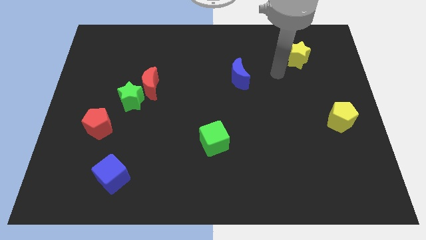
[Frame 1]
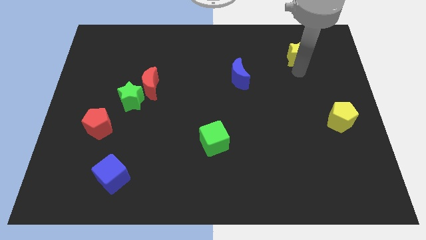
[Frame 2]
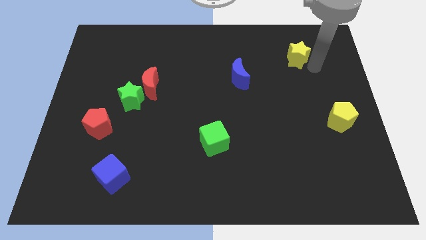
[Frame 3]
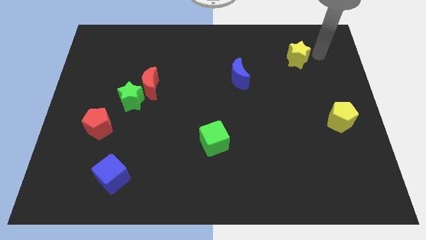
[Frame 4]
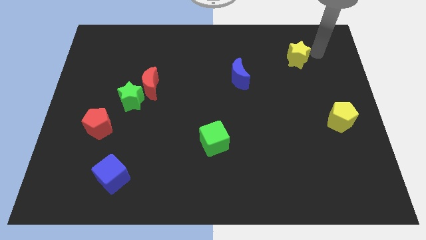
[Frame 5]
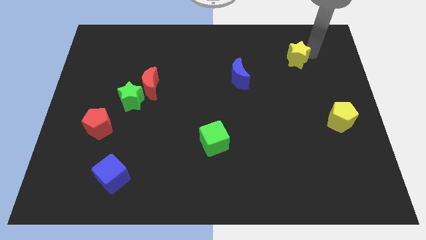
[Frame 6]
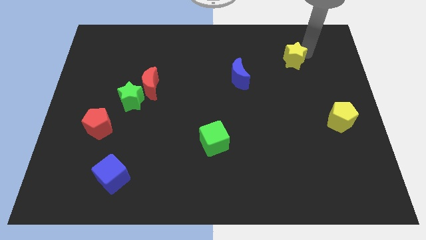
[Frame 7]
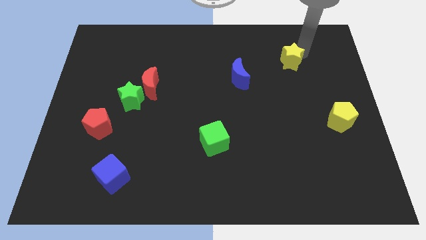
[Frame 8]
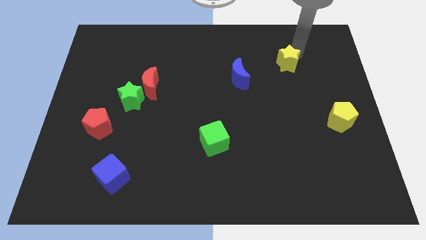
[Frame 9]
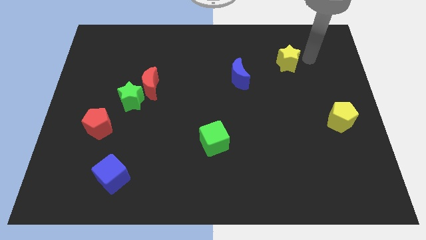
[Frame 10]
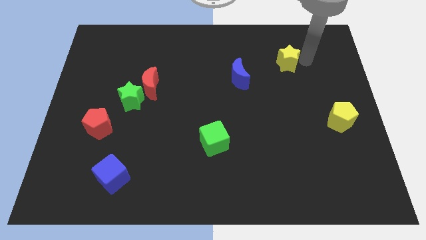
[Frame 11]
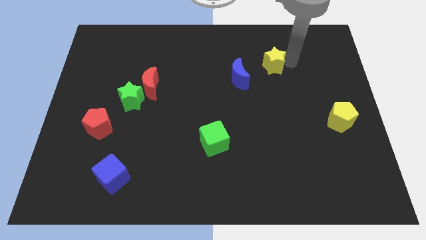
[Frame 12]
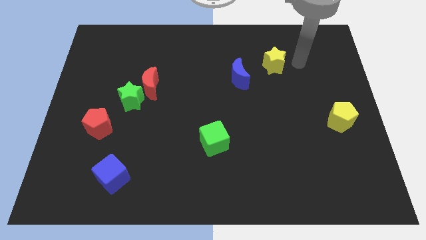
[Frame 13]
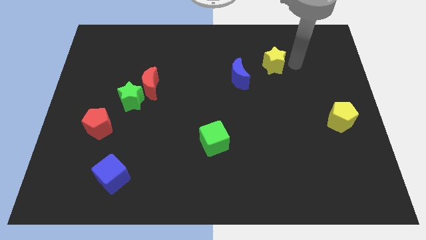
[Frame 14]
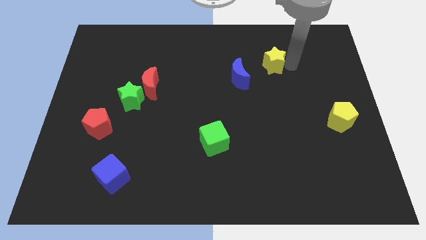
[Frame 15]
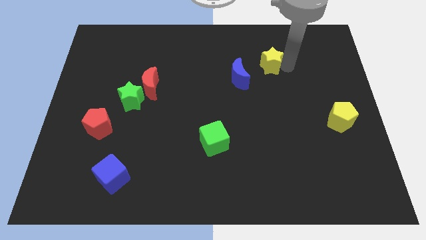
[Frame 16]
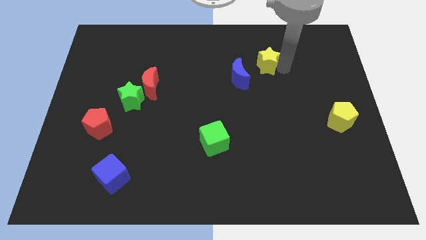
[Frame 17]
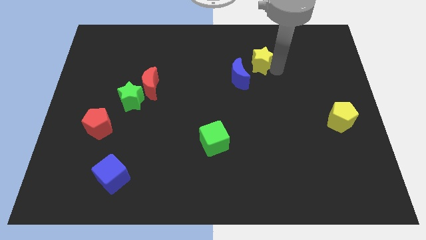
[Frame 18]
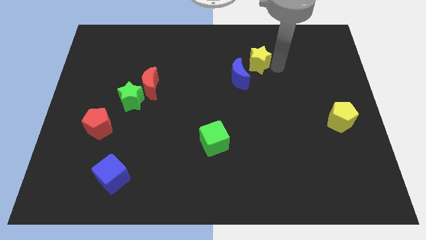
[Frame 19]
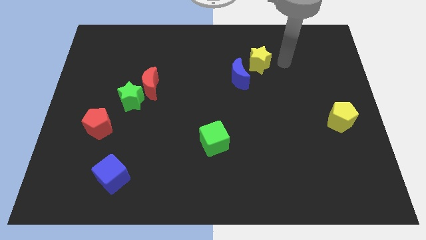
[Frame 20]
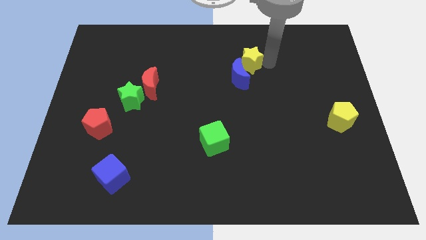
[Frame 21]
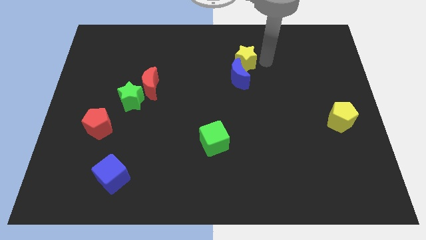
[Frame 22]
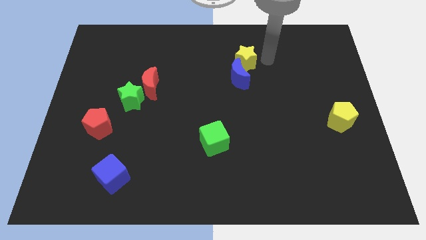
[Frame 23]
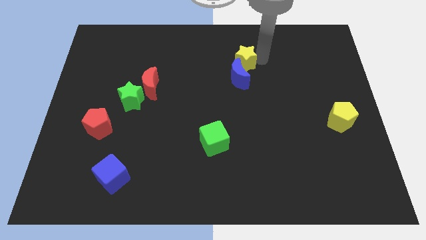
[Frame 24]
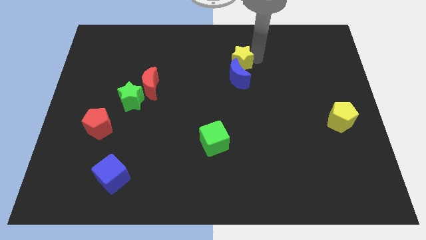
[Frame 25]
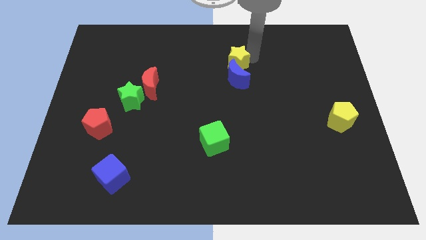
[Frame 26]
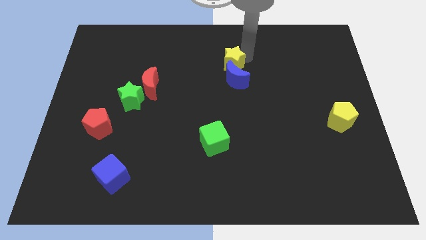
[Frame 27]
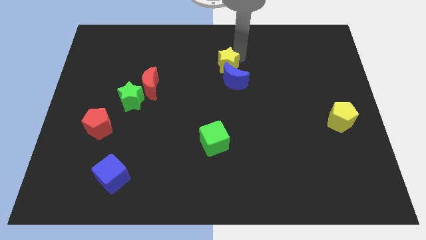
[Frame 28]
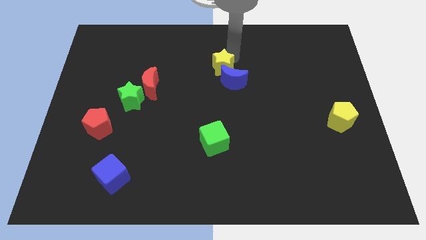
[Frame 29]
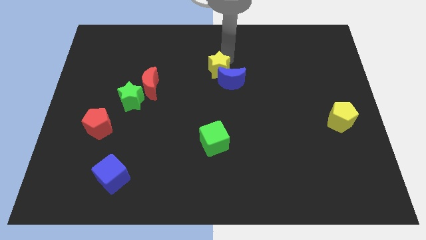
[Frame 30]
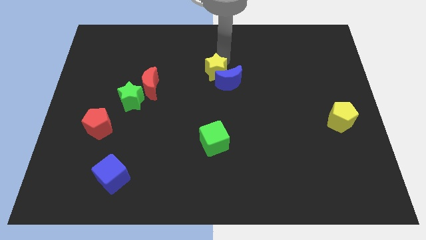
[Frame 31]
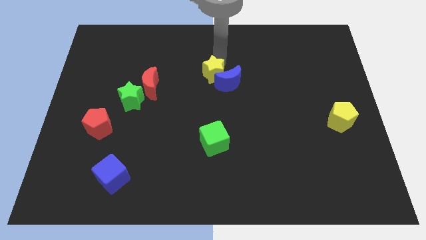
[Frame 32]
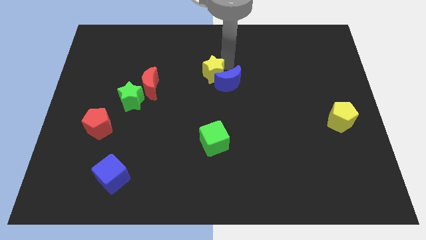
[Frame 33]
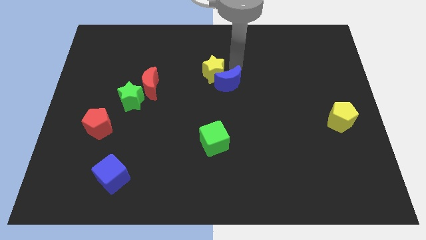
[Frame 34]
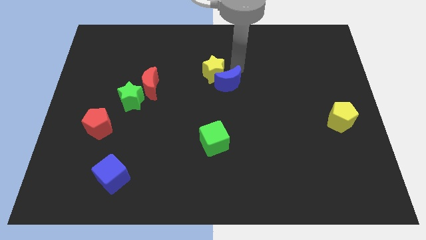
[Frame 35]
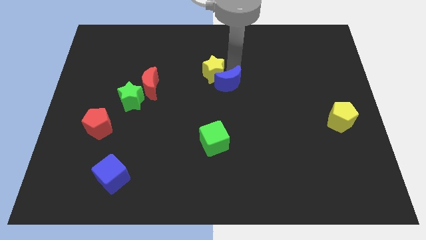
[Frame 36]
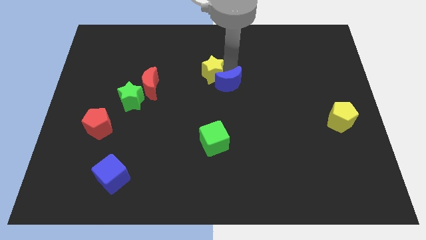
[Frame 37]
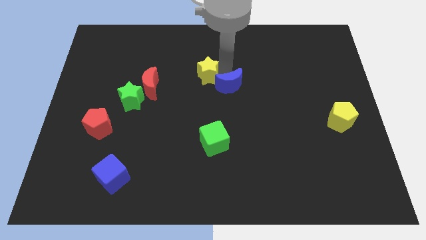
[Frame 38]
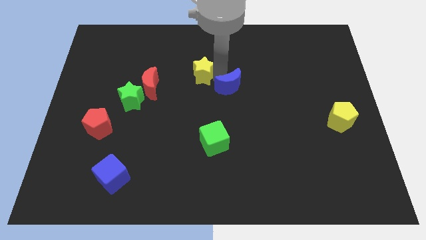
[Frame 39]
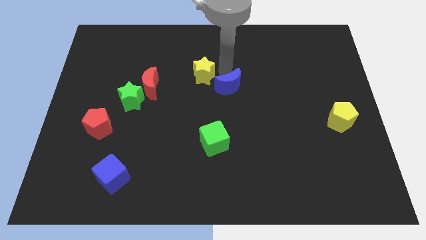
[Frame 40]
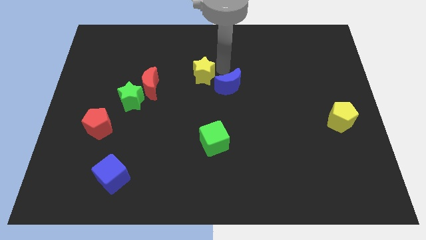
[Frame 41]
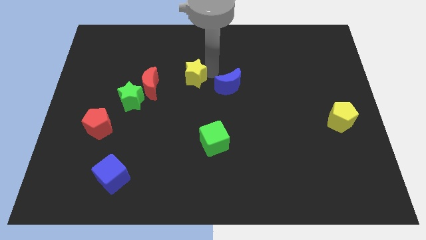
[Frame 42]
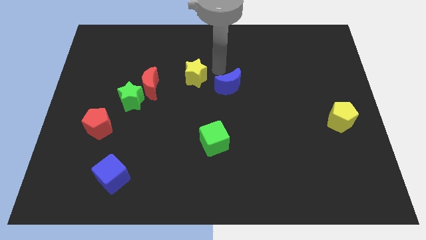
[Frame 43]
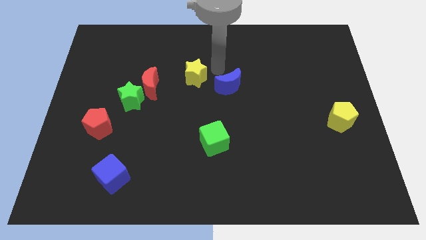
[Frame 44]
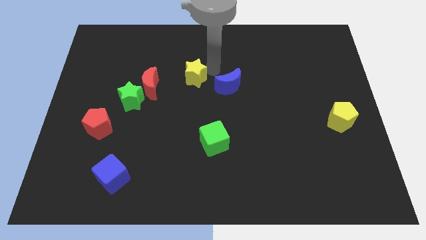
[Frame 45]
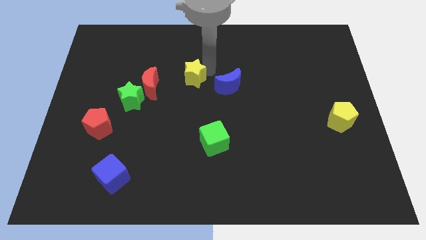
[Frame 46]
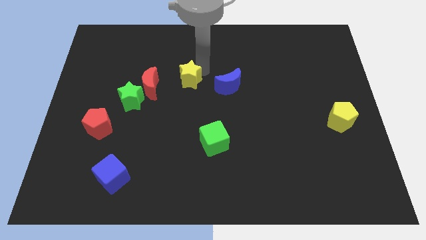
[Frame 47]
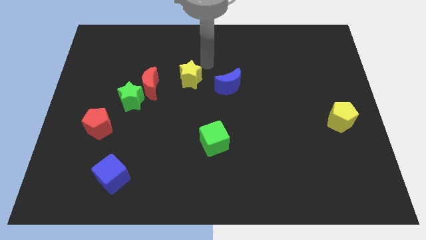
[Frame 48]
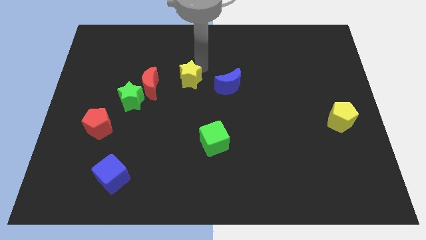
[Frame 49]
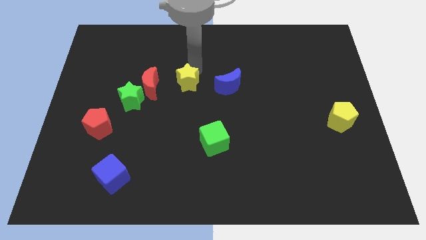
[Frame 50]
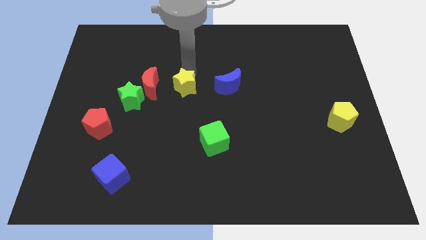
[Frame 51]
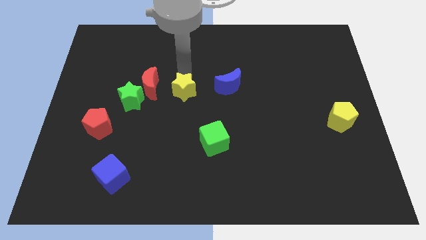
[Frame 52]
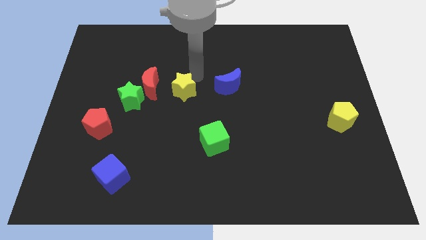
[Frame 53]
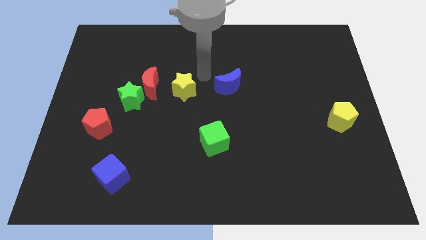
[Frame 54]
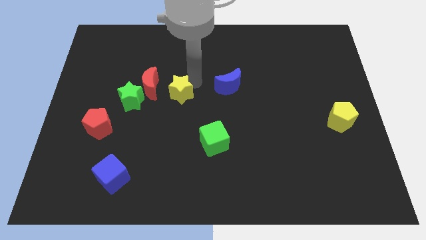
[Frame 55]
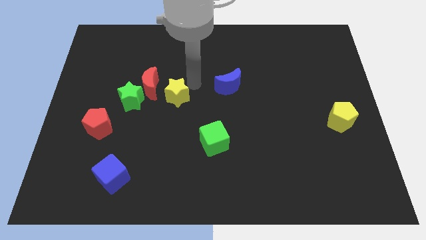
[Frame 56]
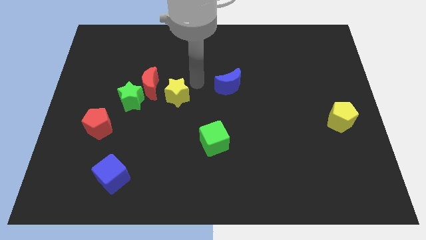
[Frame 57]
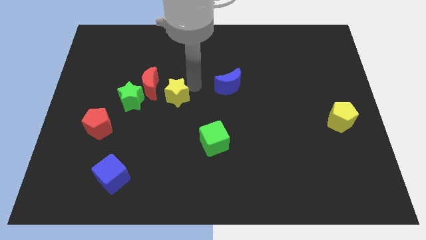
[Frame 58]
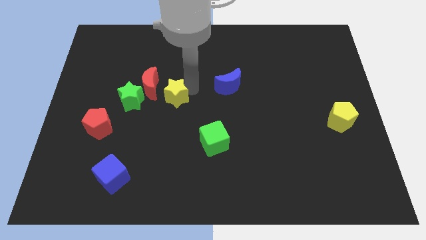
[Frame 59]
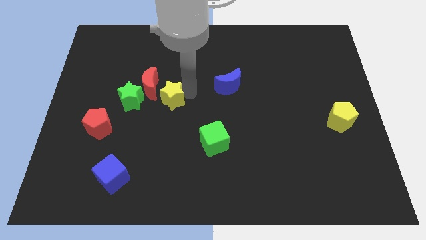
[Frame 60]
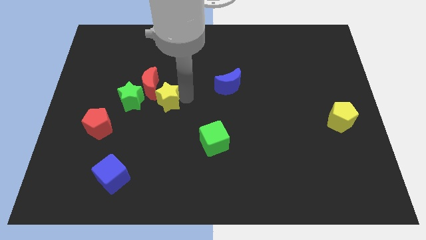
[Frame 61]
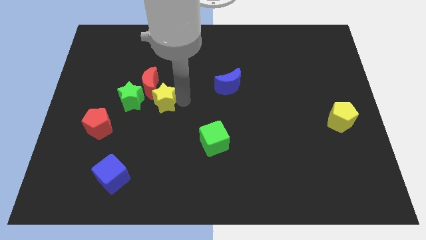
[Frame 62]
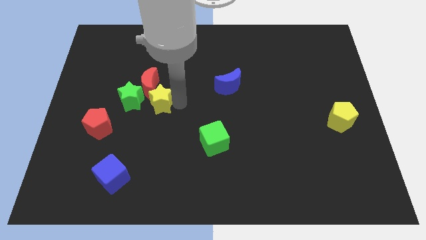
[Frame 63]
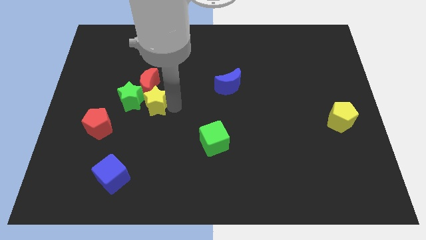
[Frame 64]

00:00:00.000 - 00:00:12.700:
move the yellow star next to the green star

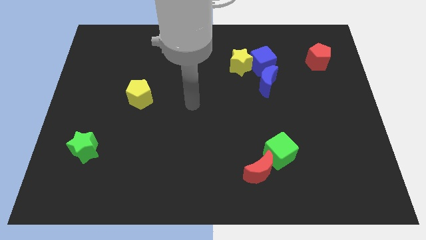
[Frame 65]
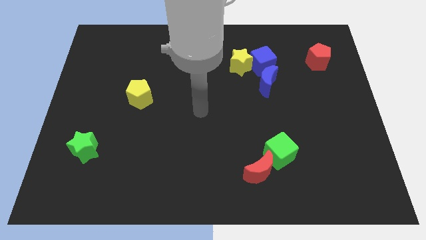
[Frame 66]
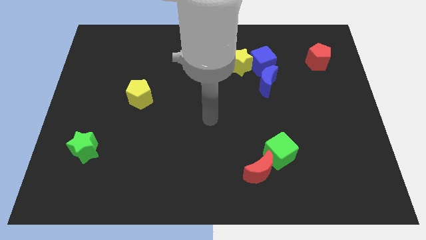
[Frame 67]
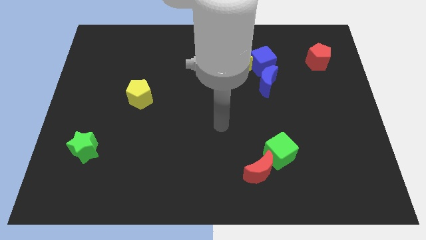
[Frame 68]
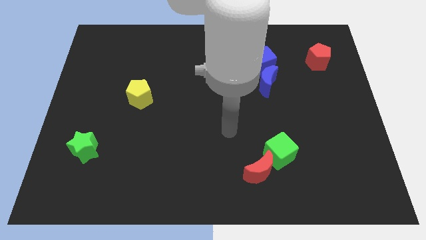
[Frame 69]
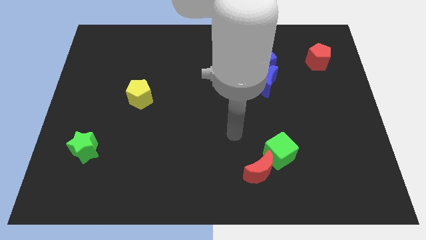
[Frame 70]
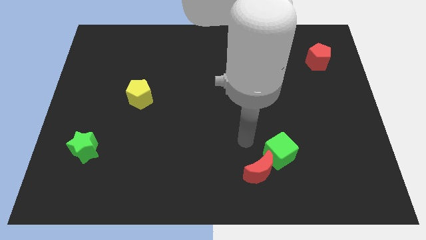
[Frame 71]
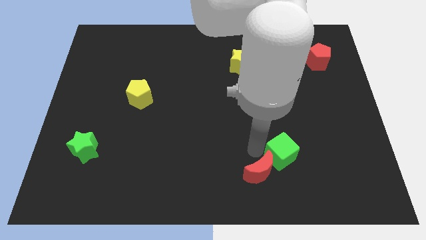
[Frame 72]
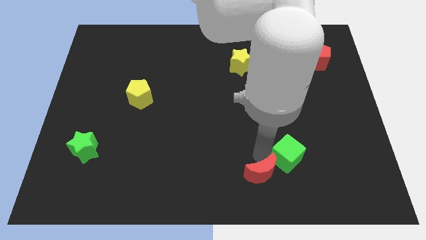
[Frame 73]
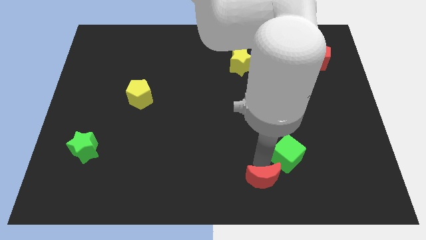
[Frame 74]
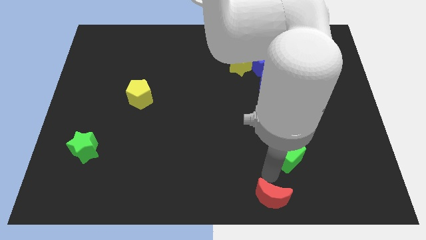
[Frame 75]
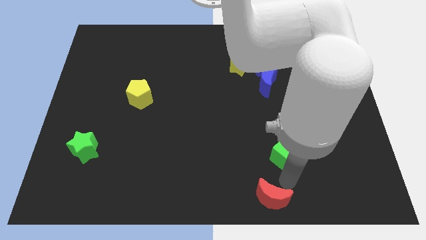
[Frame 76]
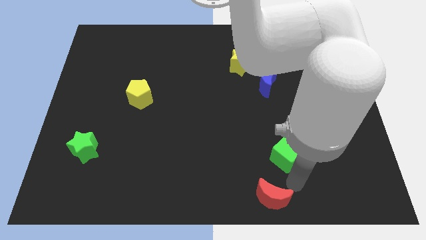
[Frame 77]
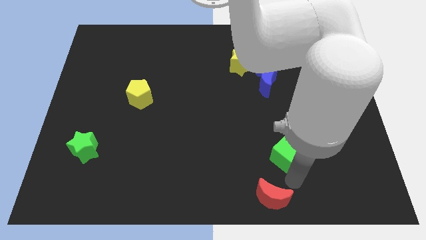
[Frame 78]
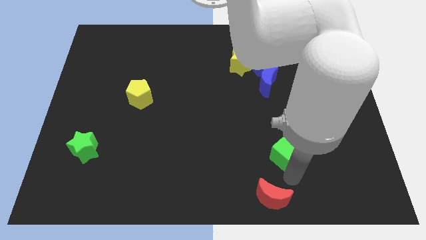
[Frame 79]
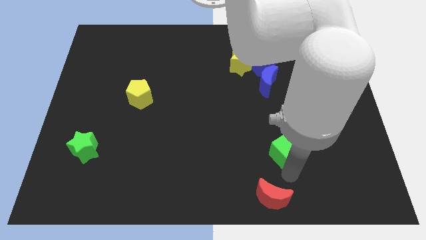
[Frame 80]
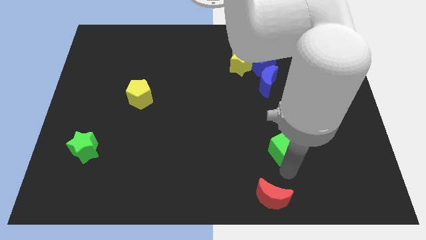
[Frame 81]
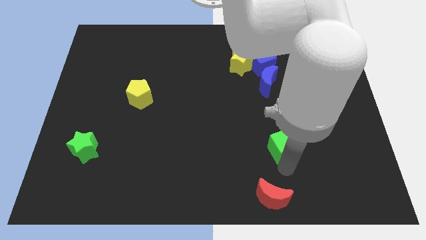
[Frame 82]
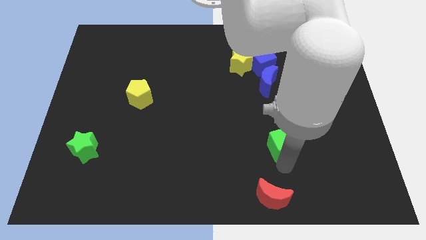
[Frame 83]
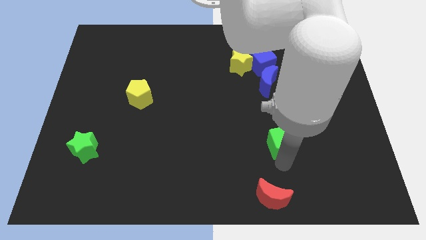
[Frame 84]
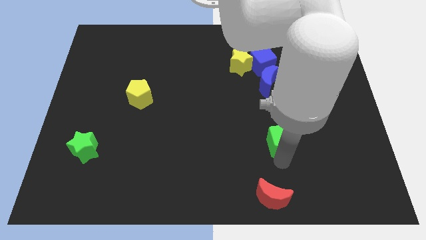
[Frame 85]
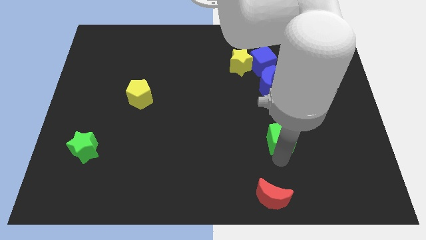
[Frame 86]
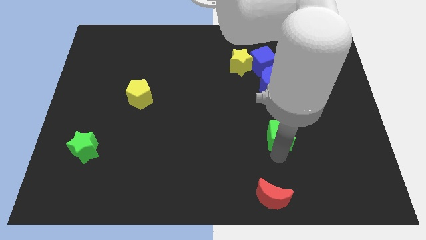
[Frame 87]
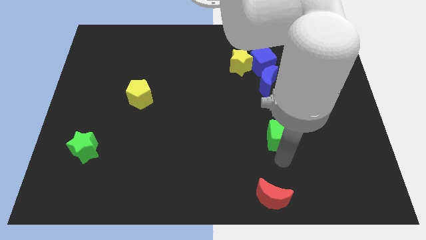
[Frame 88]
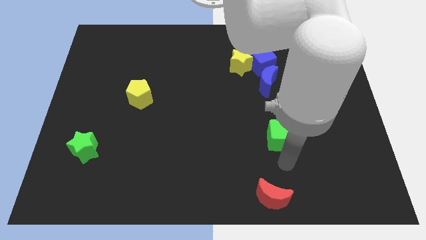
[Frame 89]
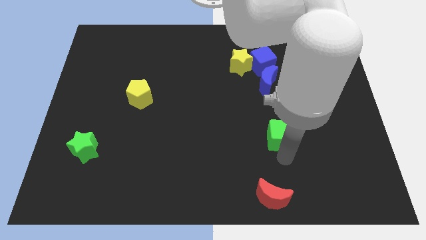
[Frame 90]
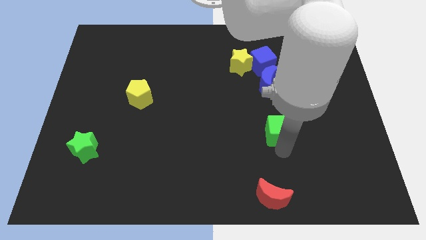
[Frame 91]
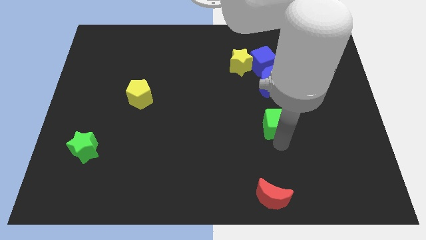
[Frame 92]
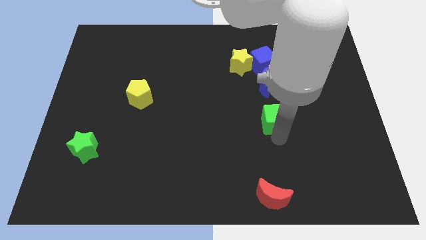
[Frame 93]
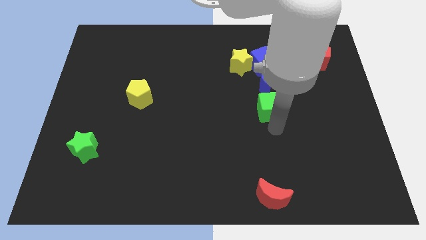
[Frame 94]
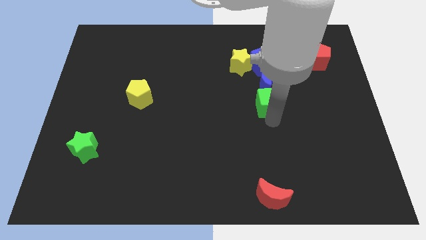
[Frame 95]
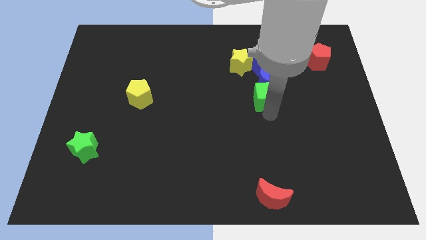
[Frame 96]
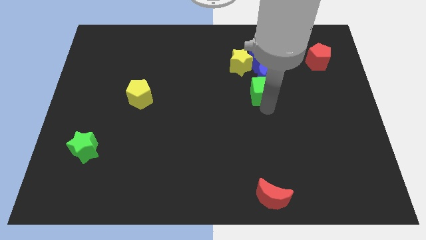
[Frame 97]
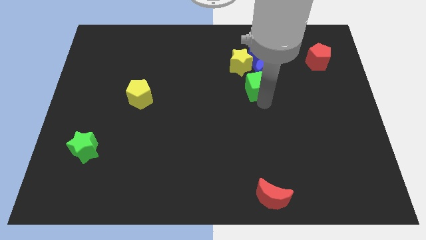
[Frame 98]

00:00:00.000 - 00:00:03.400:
move the green cube close to the blue moon
